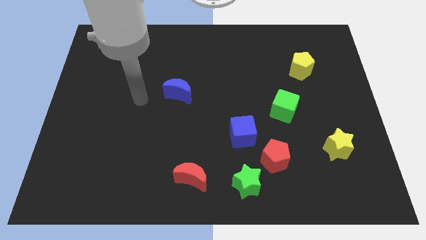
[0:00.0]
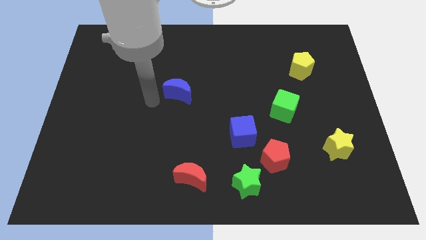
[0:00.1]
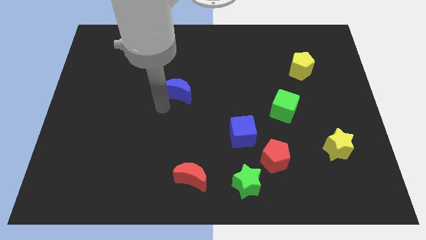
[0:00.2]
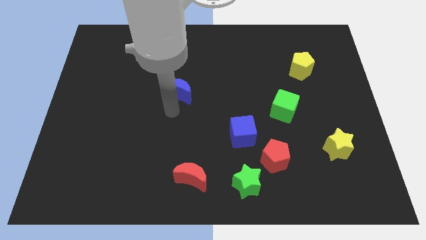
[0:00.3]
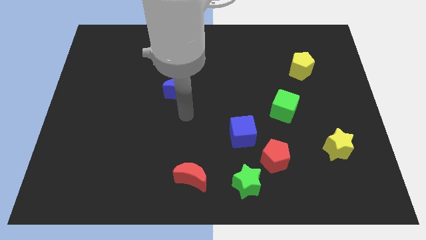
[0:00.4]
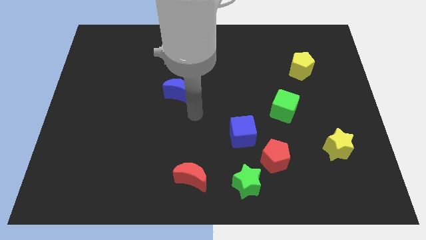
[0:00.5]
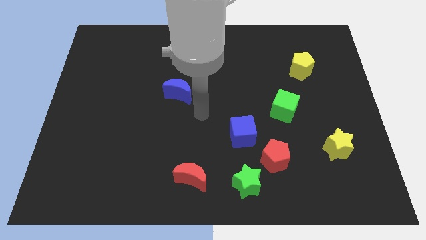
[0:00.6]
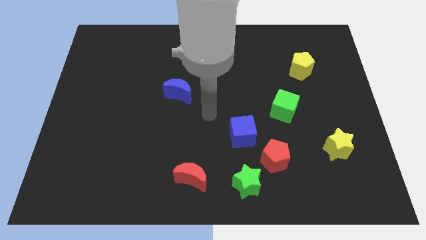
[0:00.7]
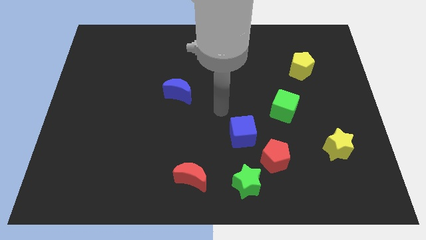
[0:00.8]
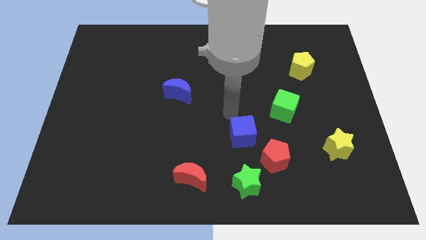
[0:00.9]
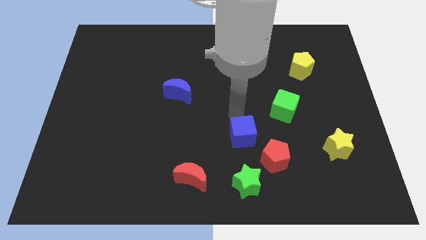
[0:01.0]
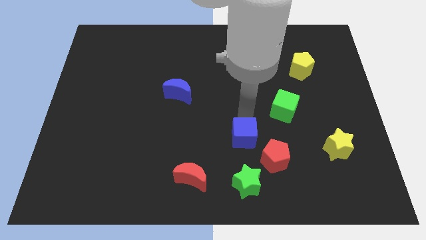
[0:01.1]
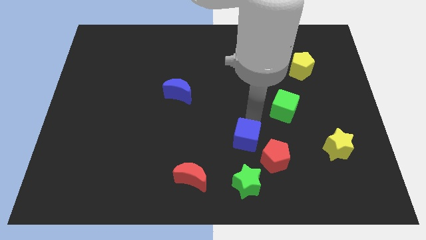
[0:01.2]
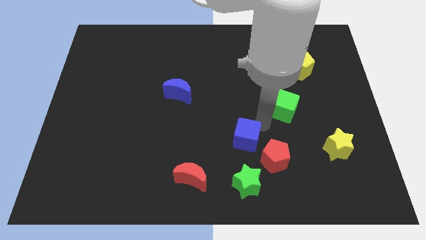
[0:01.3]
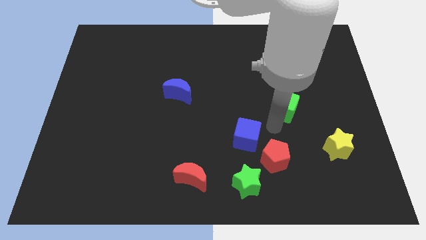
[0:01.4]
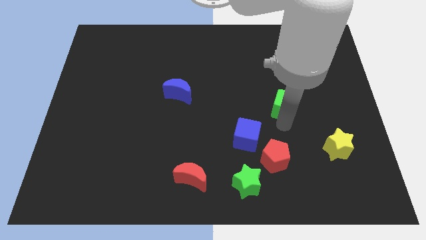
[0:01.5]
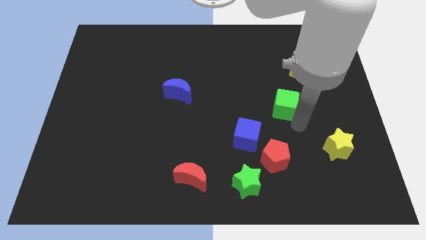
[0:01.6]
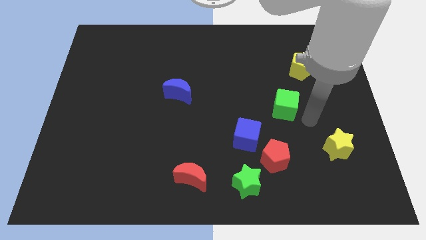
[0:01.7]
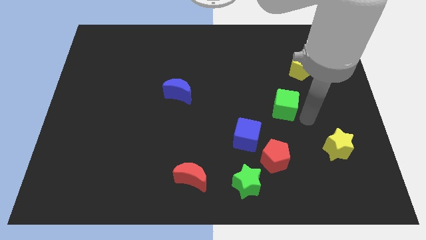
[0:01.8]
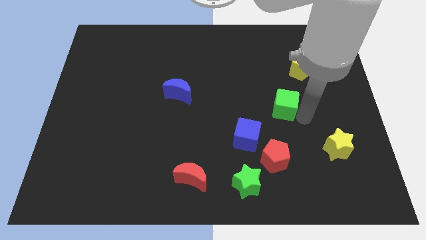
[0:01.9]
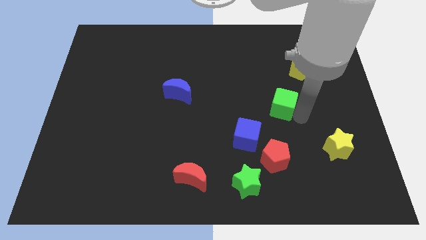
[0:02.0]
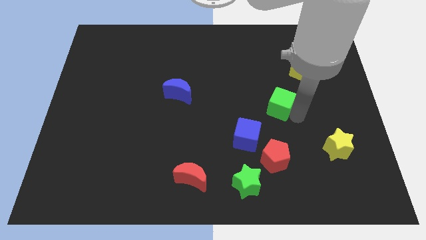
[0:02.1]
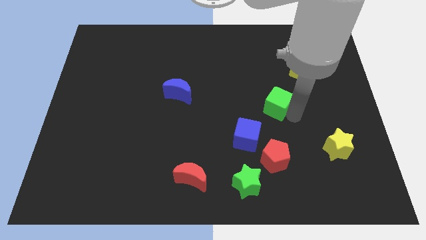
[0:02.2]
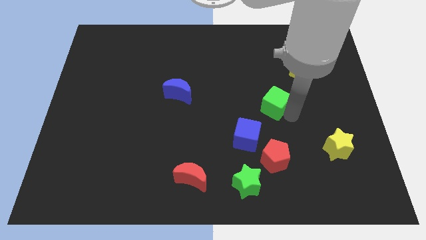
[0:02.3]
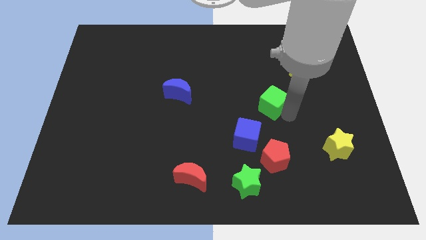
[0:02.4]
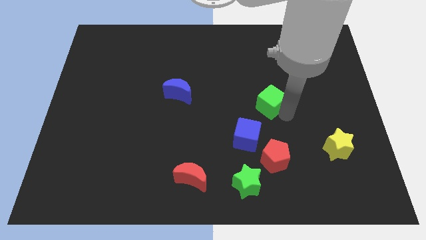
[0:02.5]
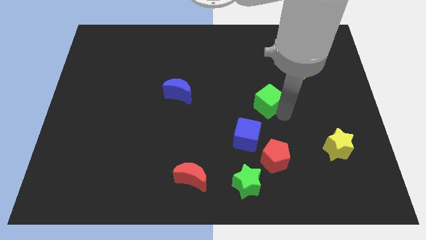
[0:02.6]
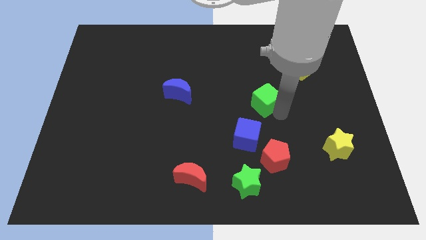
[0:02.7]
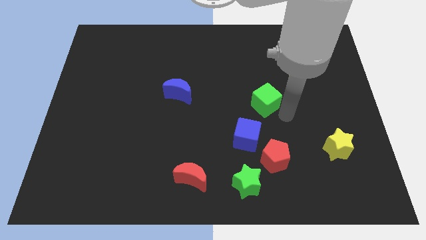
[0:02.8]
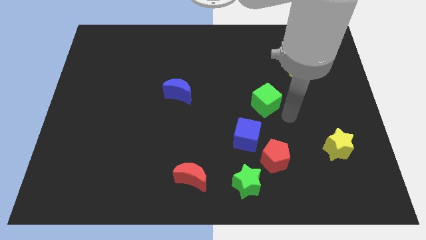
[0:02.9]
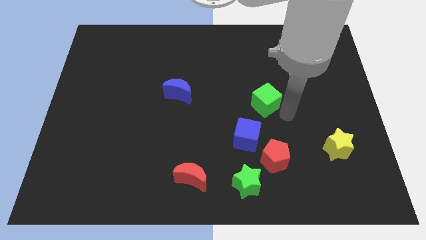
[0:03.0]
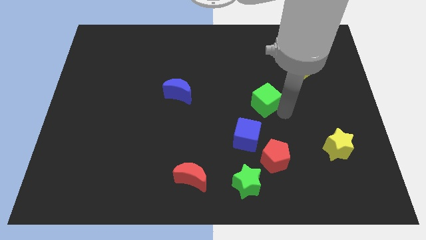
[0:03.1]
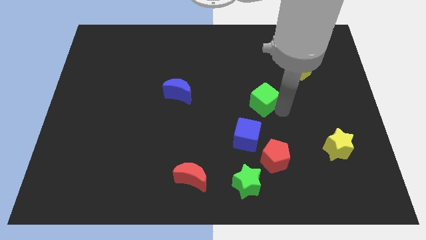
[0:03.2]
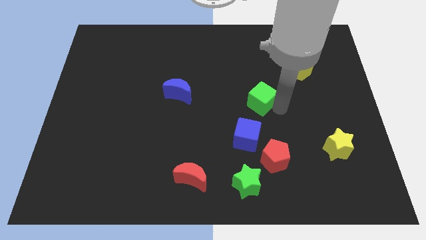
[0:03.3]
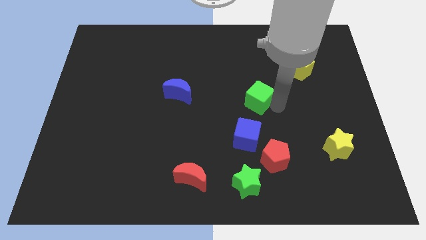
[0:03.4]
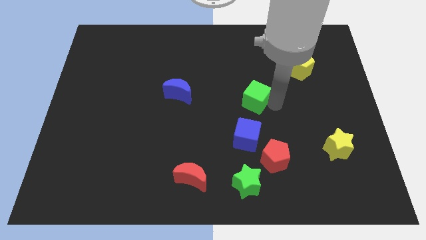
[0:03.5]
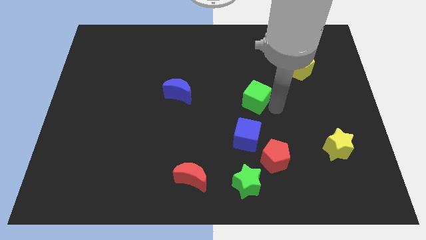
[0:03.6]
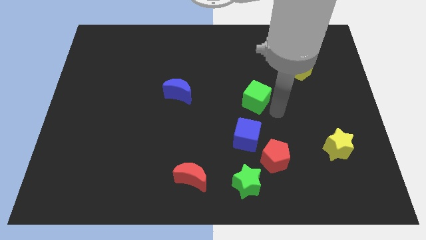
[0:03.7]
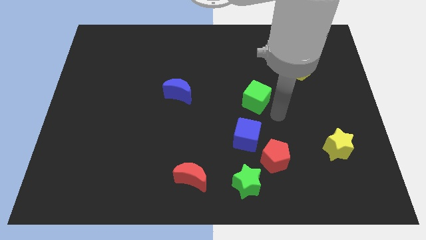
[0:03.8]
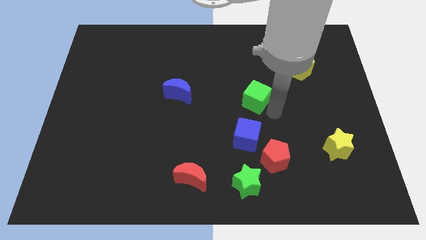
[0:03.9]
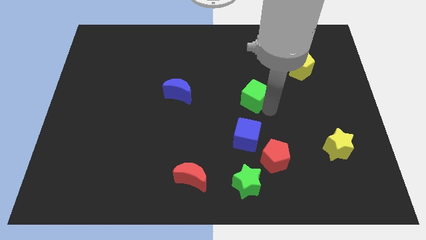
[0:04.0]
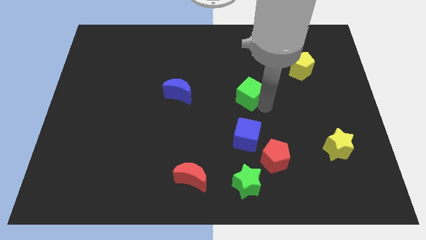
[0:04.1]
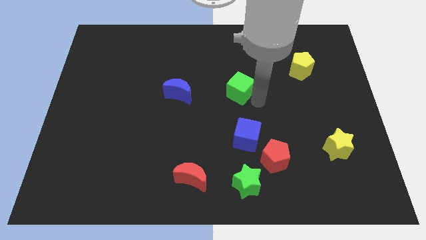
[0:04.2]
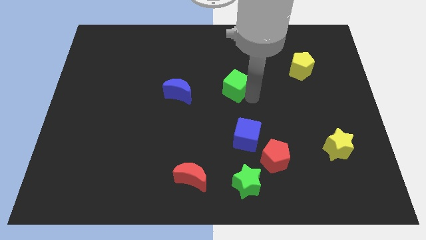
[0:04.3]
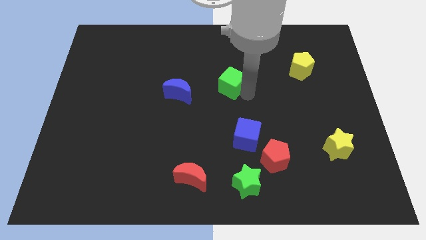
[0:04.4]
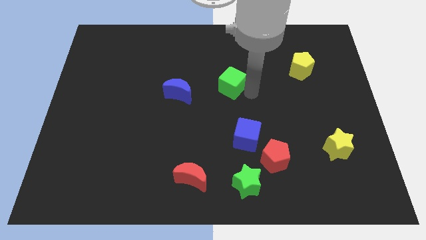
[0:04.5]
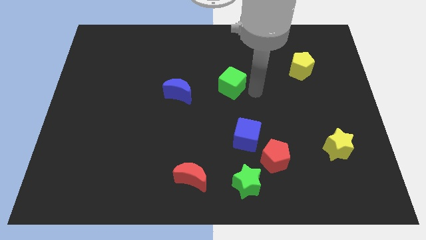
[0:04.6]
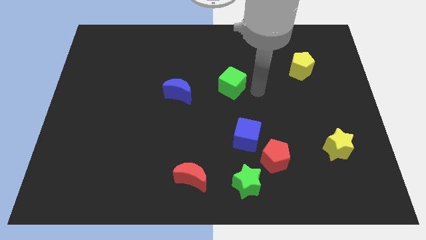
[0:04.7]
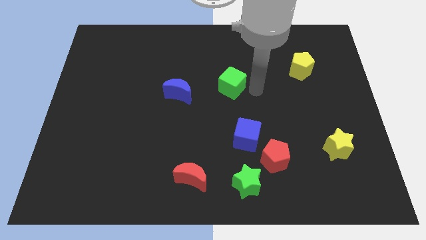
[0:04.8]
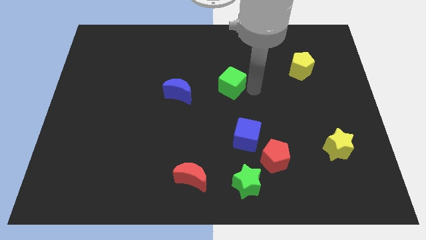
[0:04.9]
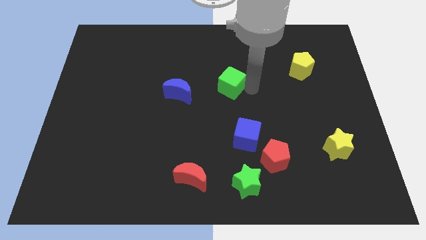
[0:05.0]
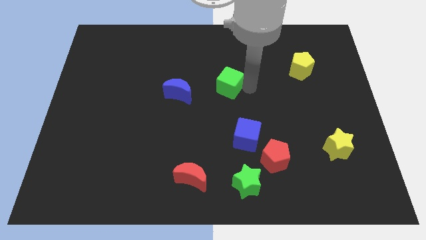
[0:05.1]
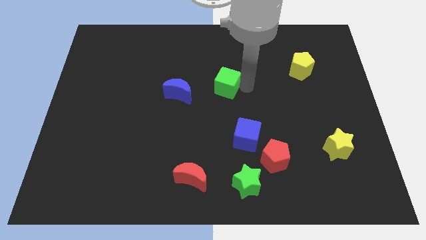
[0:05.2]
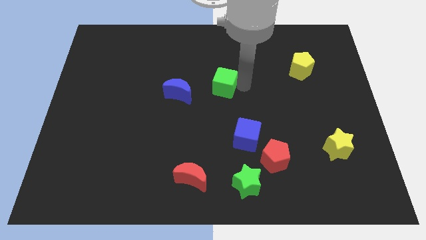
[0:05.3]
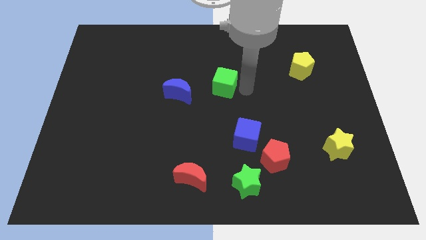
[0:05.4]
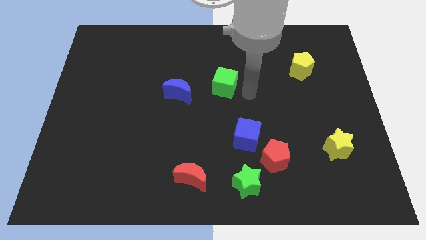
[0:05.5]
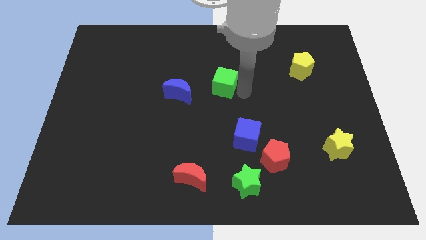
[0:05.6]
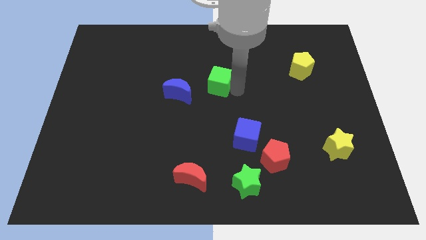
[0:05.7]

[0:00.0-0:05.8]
move the green cube to the top right side of the blue moon
